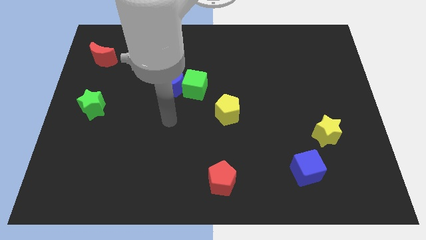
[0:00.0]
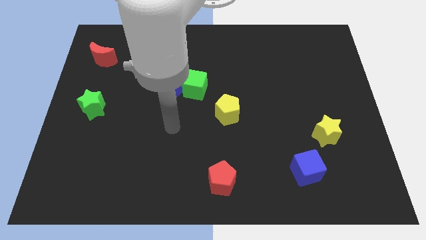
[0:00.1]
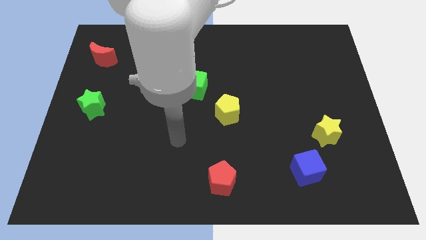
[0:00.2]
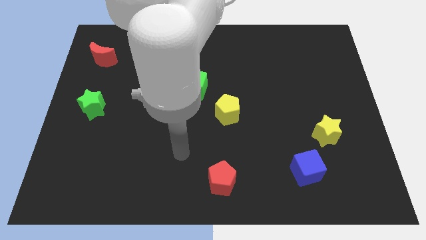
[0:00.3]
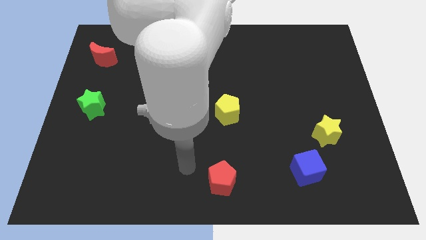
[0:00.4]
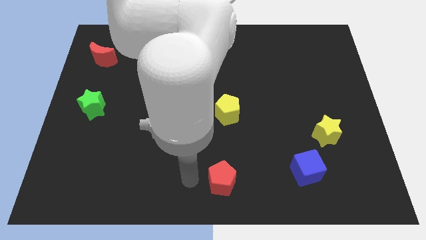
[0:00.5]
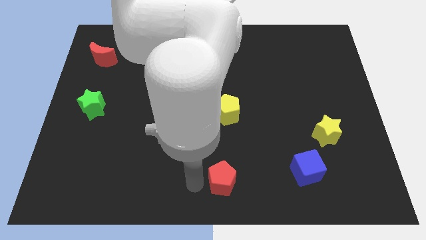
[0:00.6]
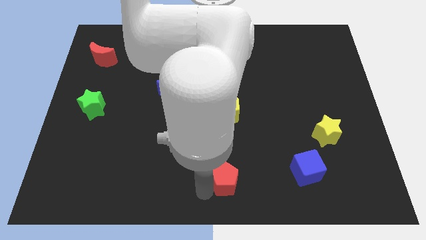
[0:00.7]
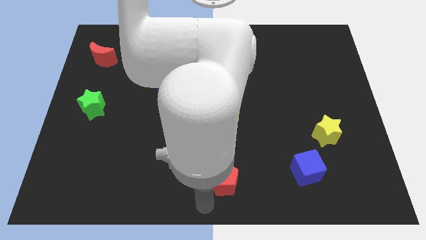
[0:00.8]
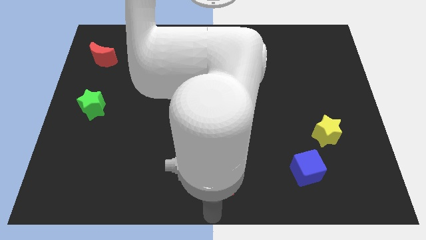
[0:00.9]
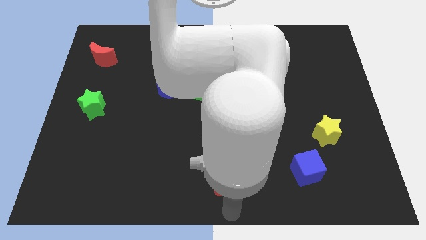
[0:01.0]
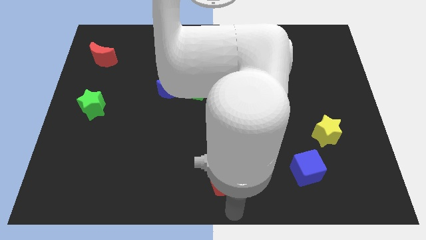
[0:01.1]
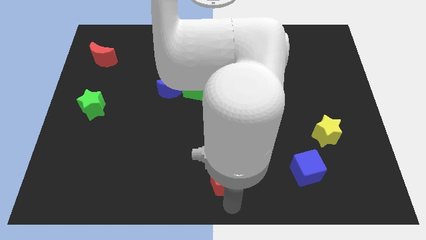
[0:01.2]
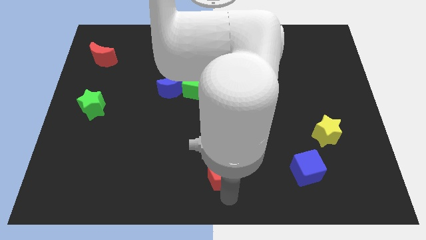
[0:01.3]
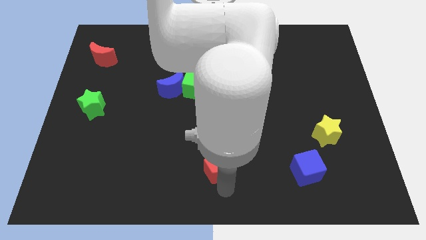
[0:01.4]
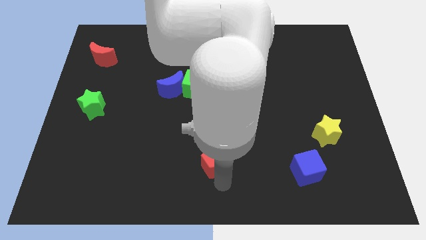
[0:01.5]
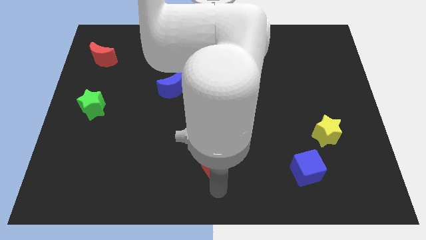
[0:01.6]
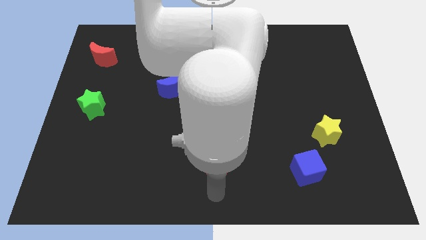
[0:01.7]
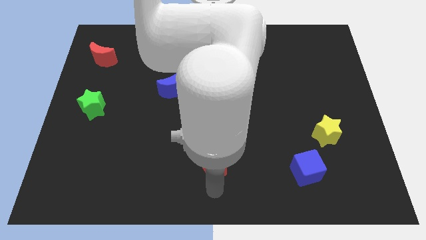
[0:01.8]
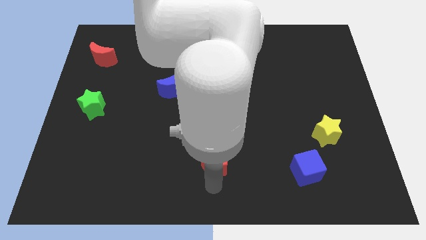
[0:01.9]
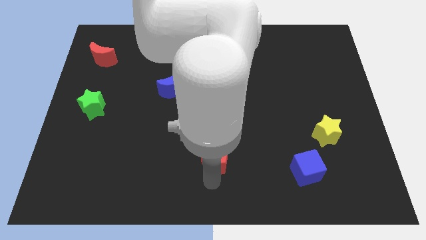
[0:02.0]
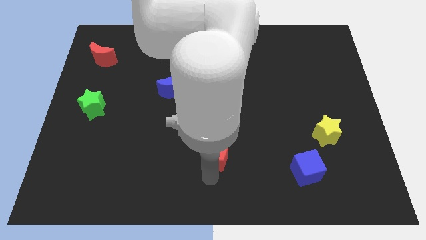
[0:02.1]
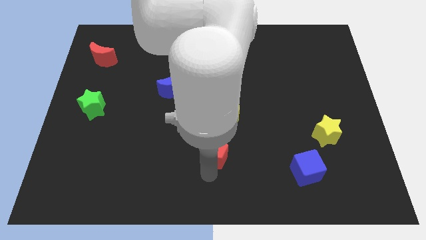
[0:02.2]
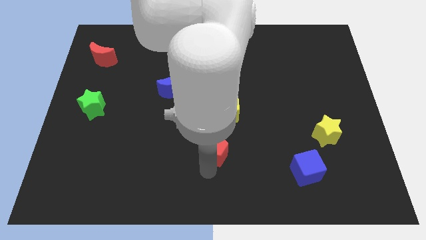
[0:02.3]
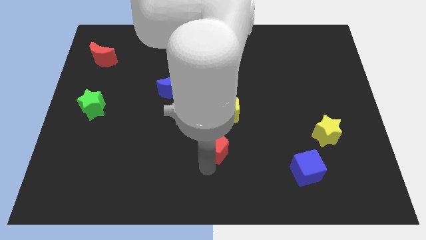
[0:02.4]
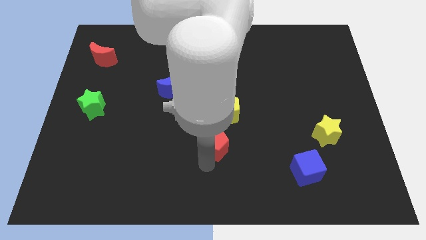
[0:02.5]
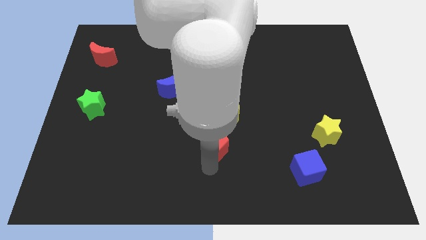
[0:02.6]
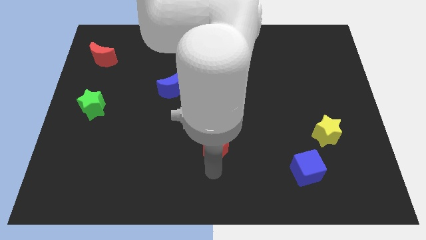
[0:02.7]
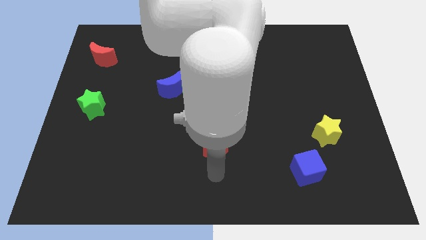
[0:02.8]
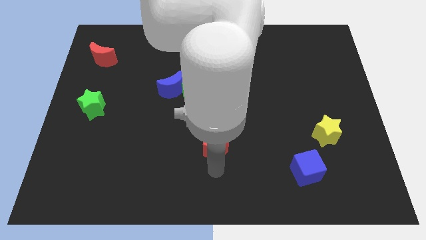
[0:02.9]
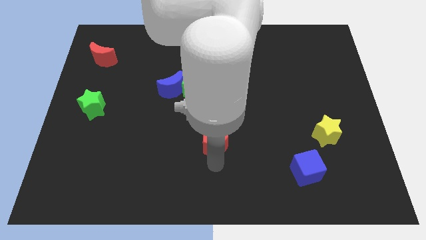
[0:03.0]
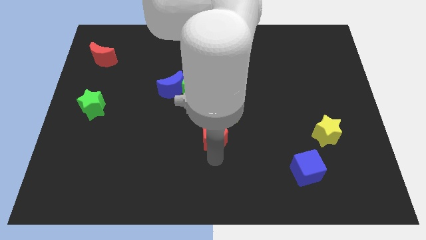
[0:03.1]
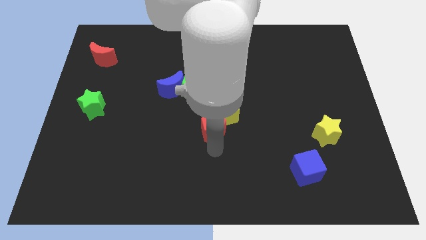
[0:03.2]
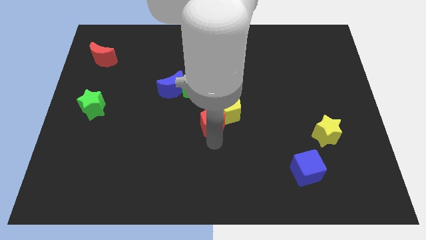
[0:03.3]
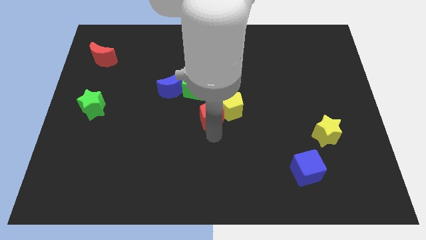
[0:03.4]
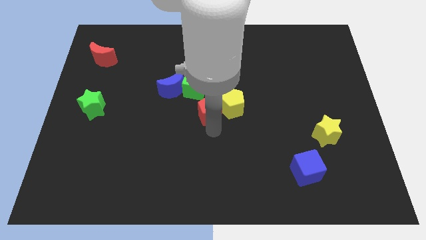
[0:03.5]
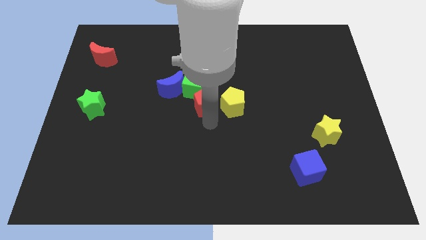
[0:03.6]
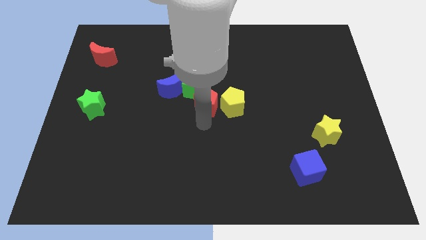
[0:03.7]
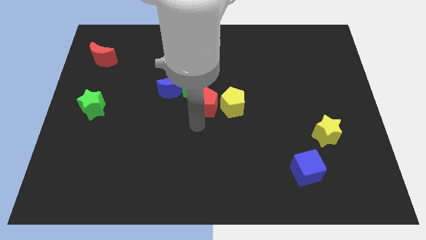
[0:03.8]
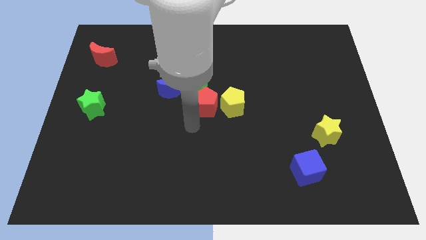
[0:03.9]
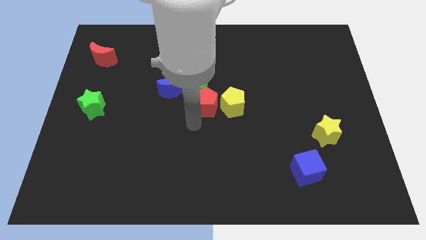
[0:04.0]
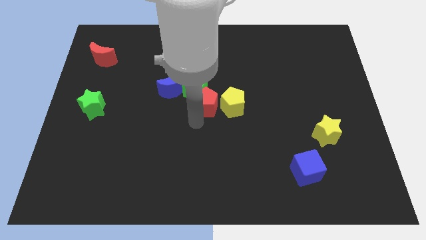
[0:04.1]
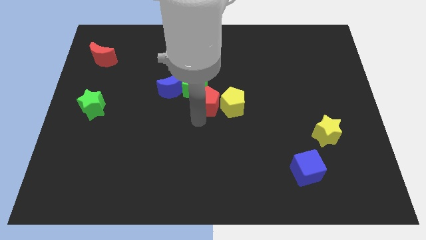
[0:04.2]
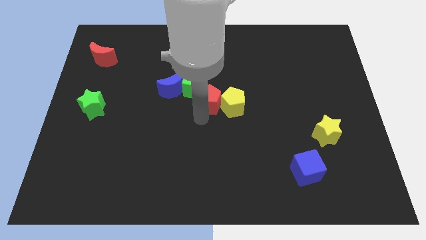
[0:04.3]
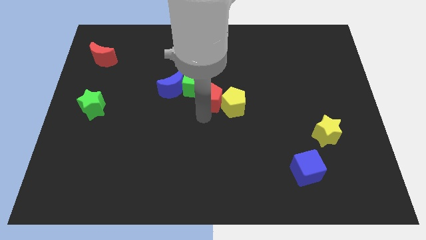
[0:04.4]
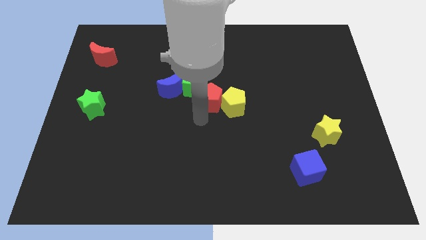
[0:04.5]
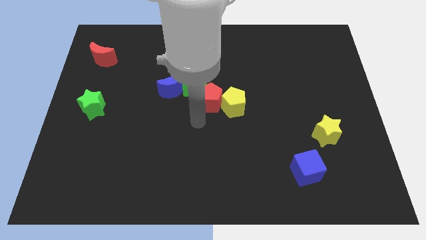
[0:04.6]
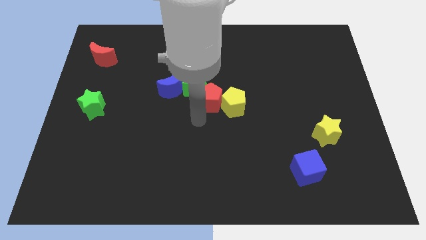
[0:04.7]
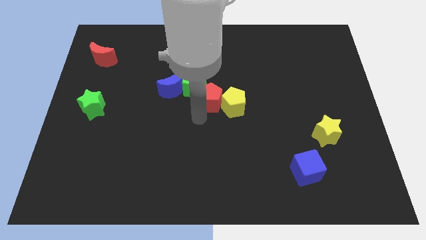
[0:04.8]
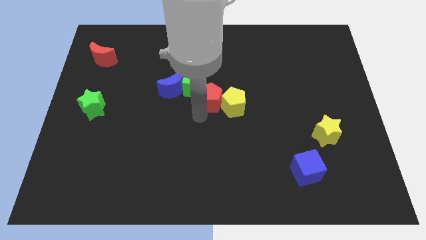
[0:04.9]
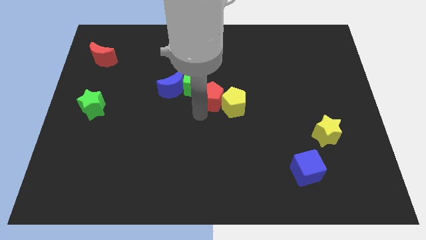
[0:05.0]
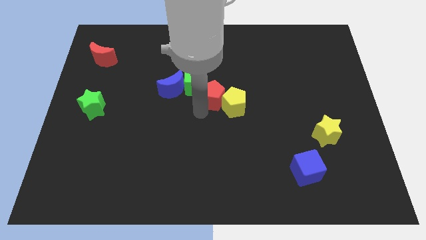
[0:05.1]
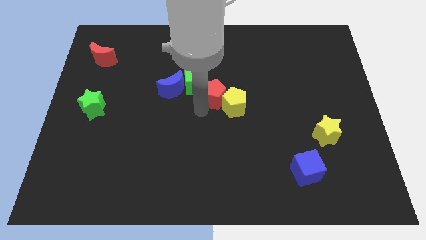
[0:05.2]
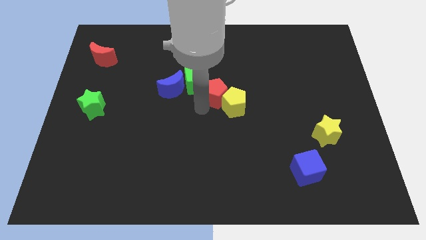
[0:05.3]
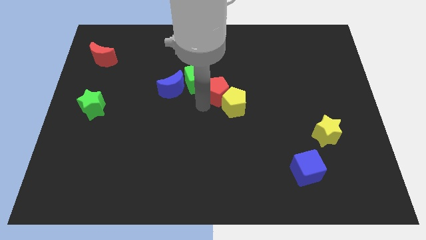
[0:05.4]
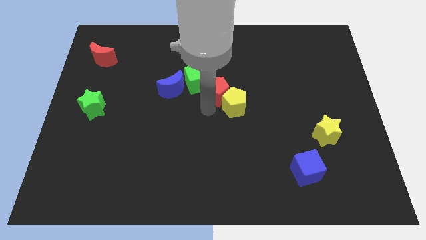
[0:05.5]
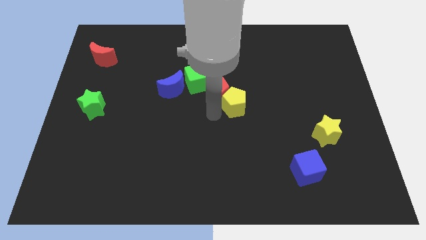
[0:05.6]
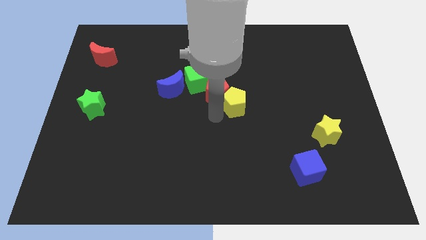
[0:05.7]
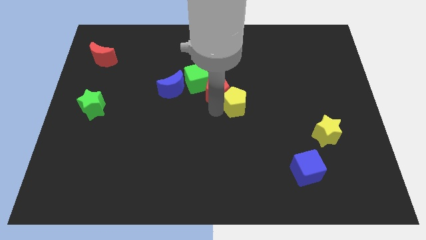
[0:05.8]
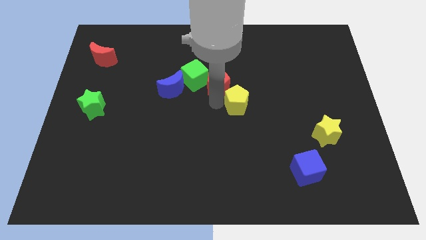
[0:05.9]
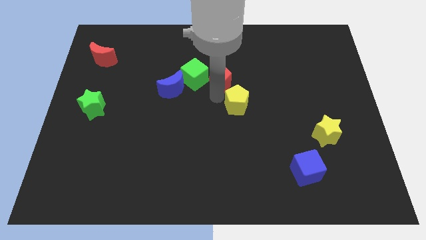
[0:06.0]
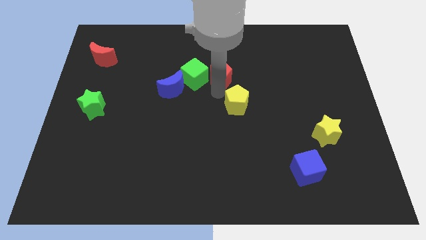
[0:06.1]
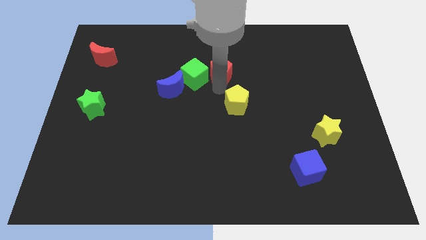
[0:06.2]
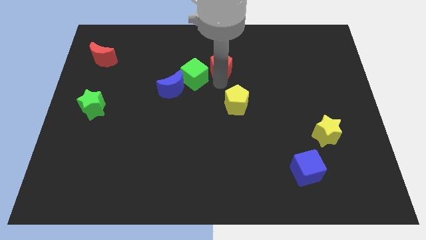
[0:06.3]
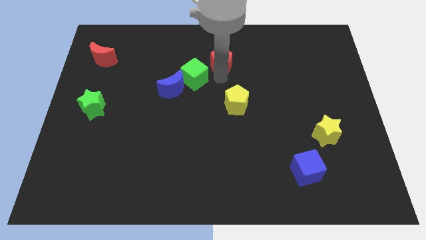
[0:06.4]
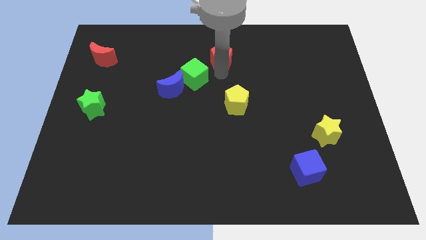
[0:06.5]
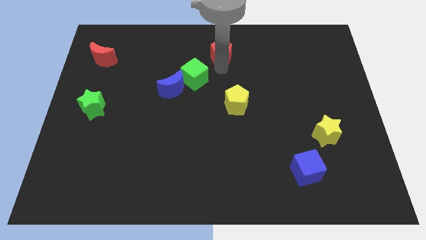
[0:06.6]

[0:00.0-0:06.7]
put the red pentagon to the top
